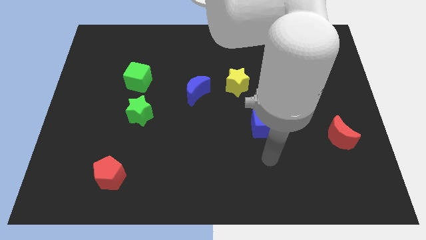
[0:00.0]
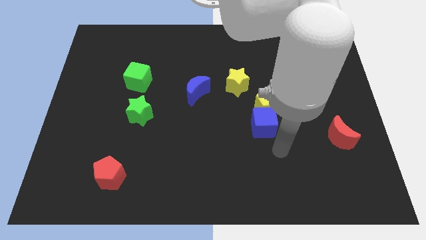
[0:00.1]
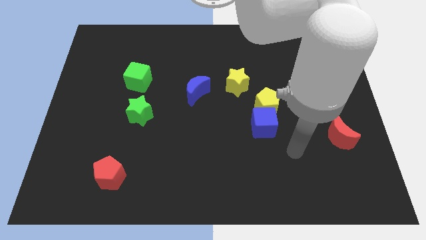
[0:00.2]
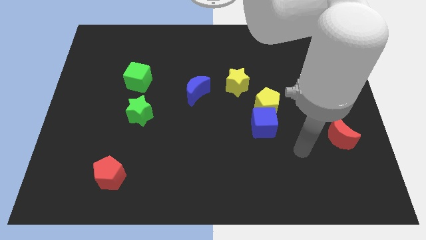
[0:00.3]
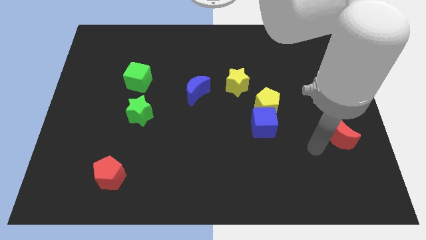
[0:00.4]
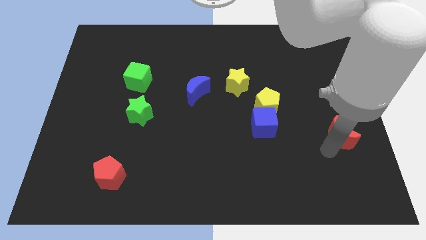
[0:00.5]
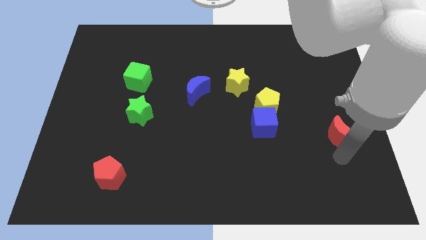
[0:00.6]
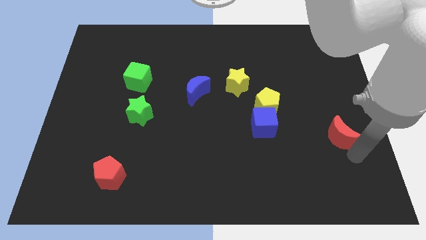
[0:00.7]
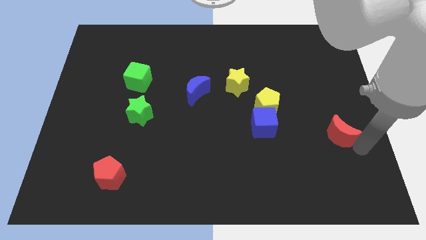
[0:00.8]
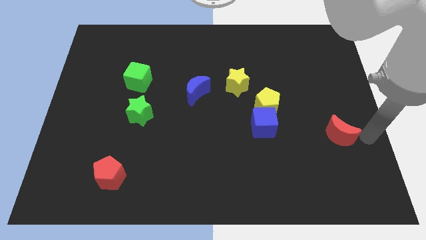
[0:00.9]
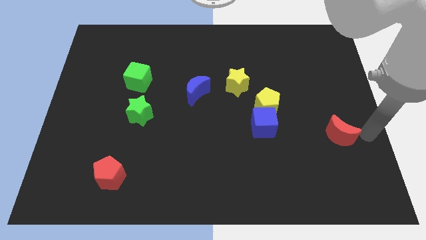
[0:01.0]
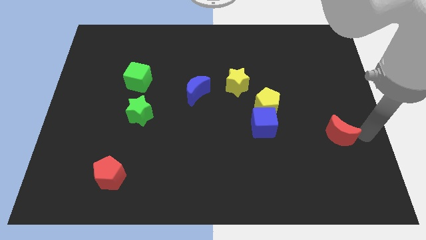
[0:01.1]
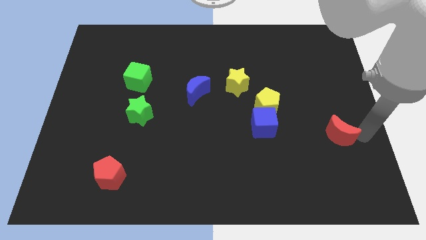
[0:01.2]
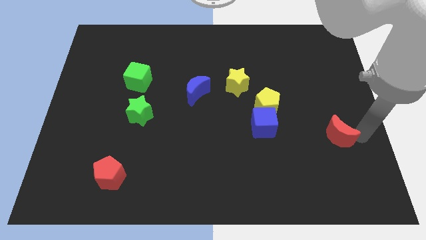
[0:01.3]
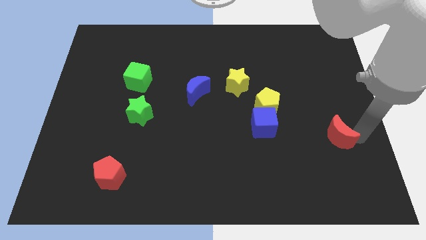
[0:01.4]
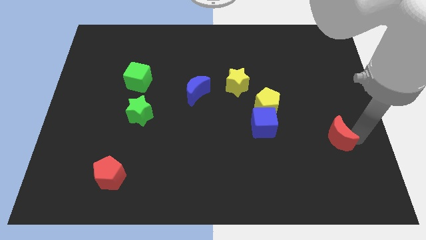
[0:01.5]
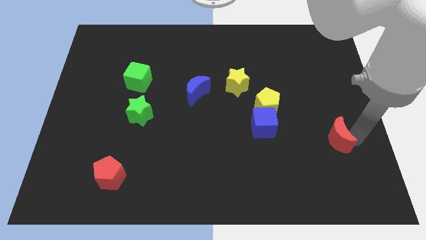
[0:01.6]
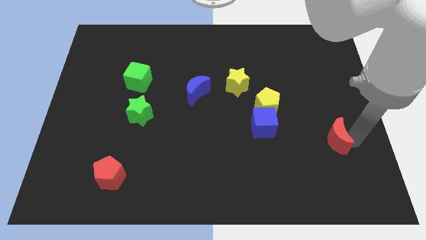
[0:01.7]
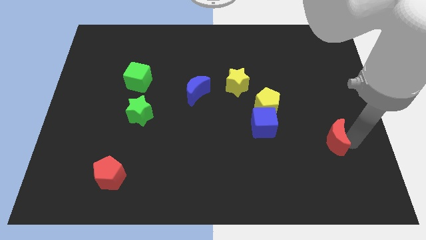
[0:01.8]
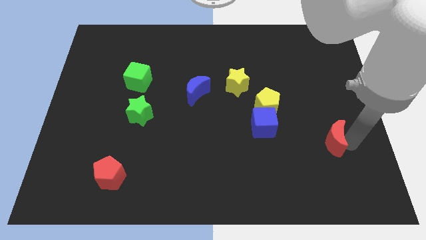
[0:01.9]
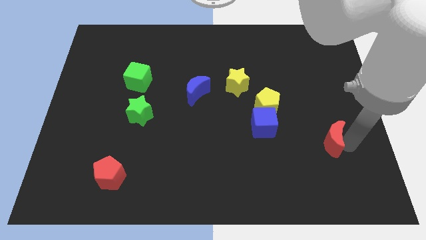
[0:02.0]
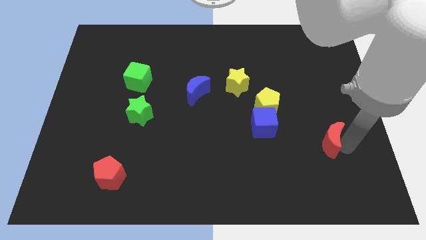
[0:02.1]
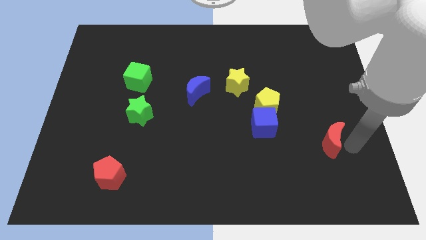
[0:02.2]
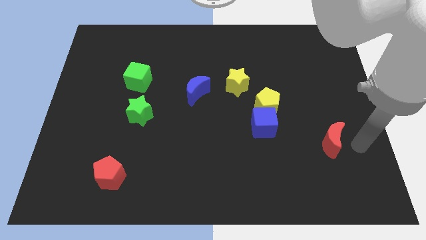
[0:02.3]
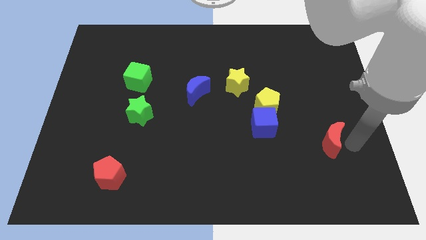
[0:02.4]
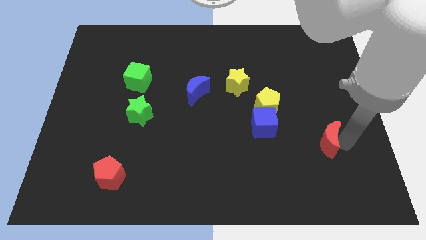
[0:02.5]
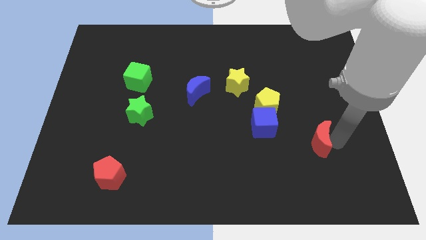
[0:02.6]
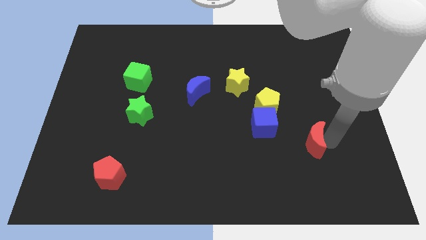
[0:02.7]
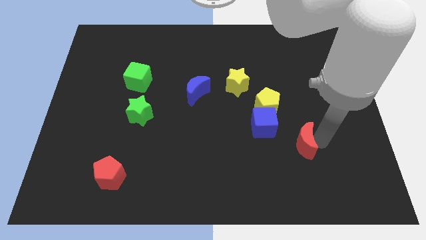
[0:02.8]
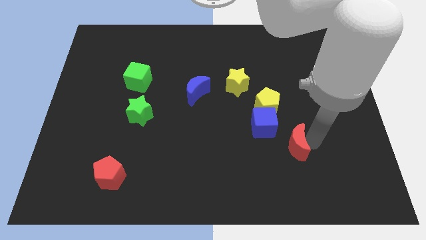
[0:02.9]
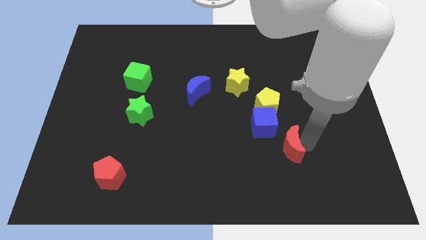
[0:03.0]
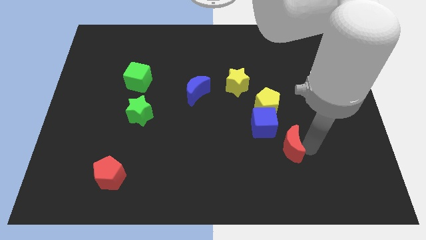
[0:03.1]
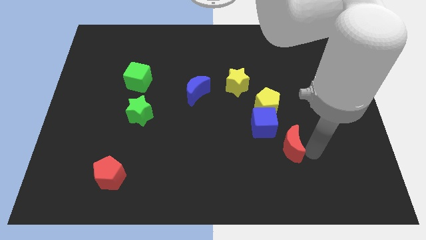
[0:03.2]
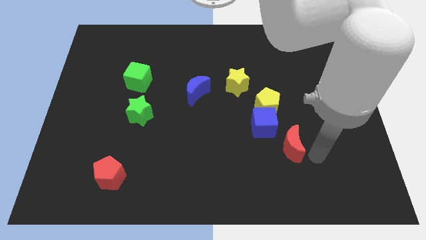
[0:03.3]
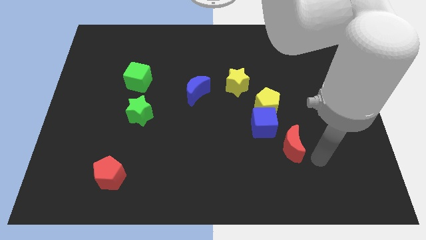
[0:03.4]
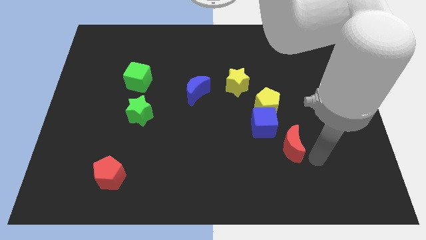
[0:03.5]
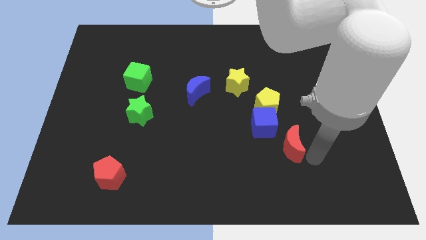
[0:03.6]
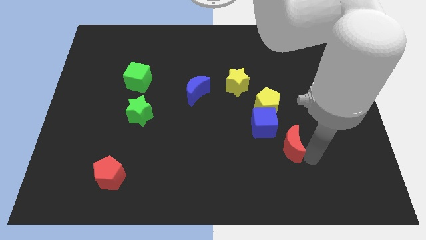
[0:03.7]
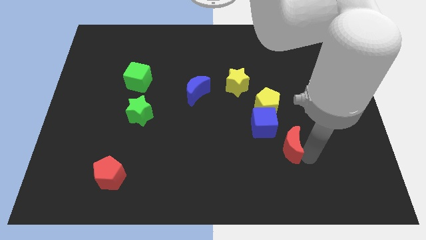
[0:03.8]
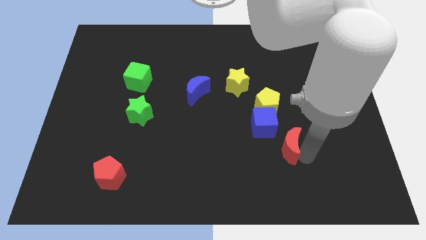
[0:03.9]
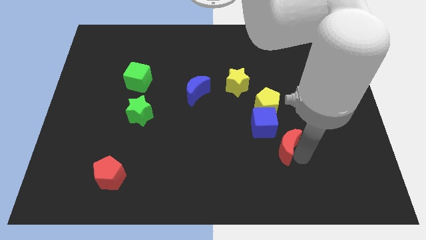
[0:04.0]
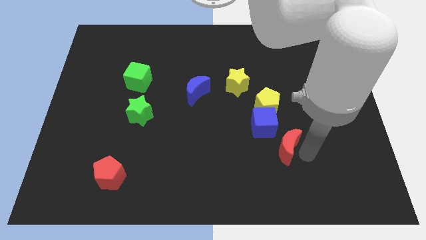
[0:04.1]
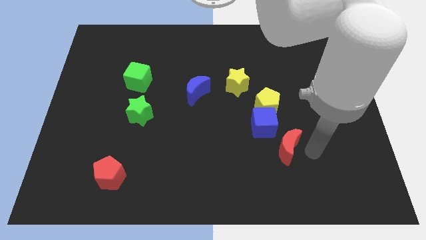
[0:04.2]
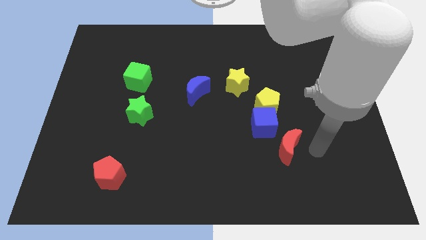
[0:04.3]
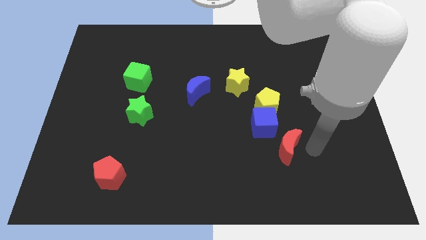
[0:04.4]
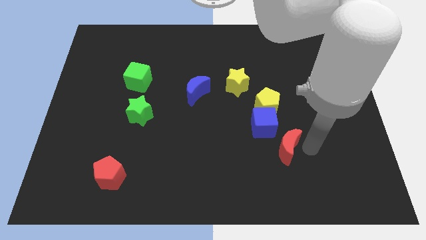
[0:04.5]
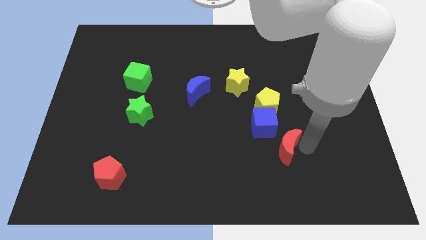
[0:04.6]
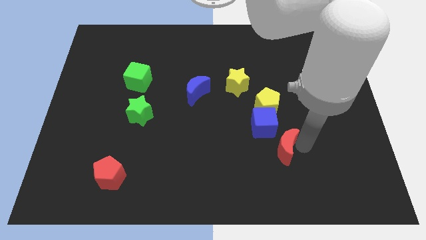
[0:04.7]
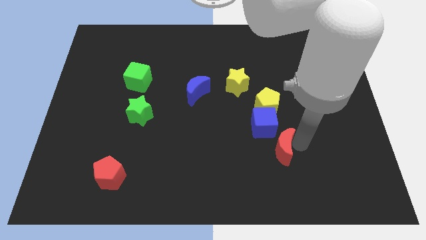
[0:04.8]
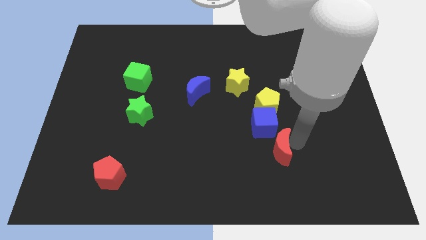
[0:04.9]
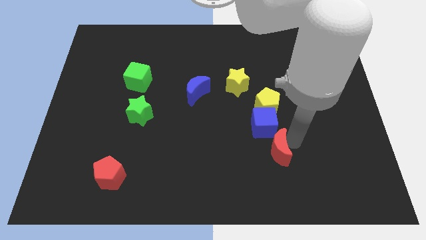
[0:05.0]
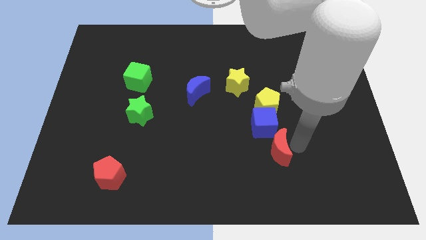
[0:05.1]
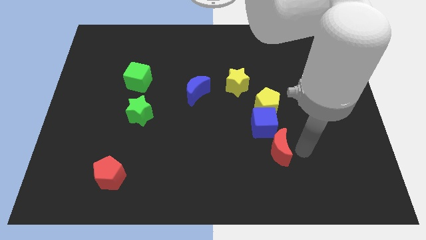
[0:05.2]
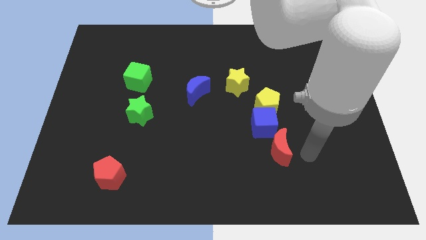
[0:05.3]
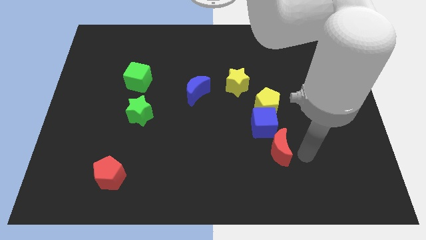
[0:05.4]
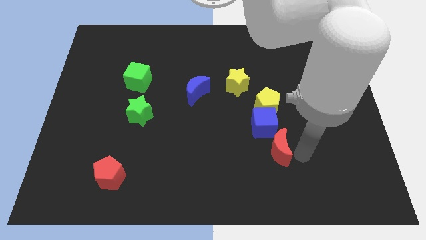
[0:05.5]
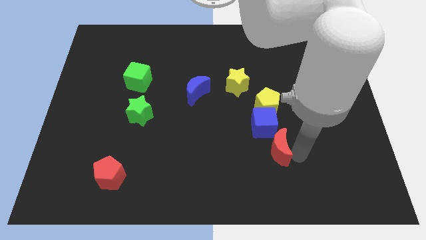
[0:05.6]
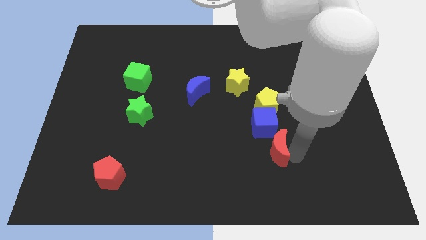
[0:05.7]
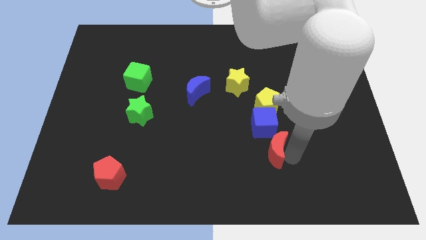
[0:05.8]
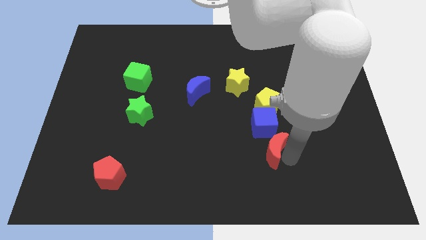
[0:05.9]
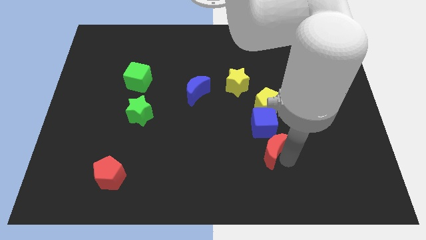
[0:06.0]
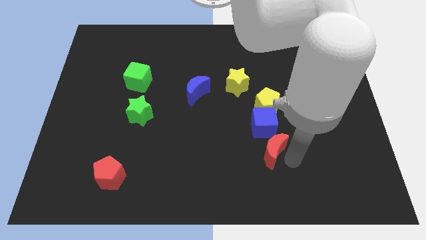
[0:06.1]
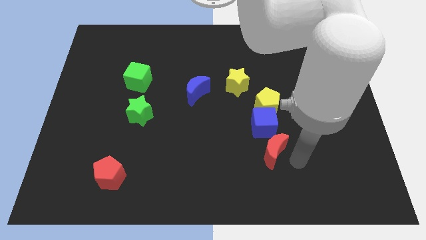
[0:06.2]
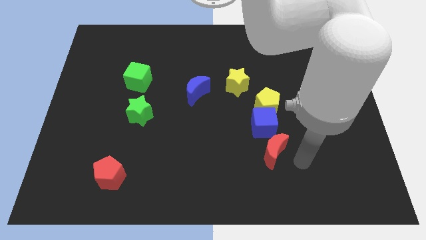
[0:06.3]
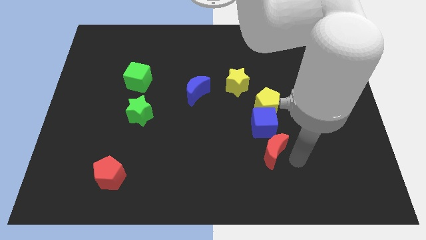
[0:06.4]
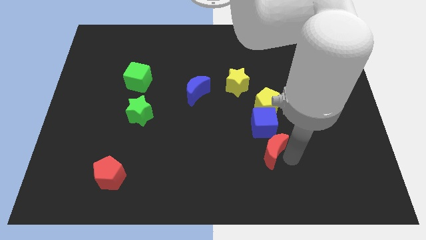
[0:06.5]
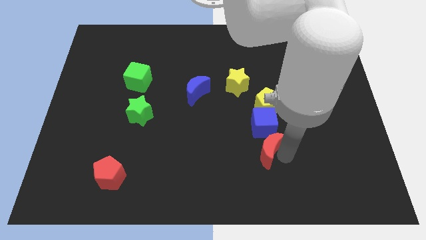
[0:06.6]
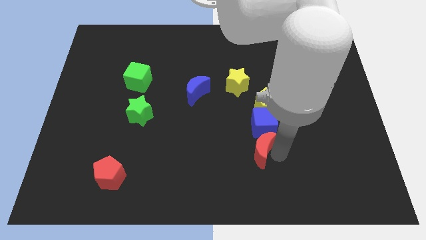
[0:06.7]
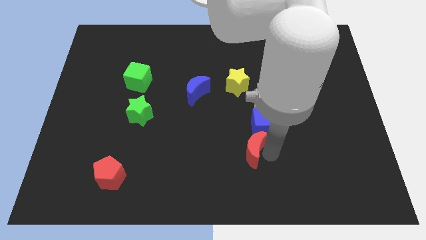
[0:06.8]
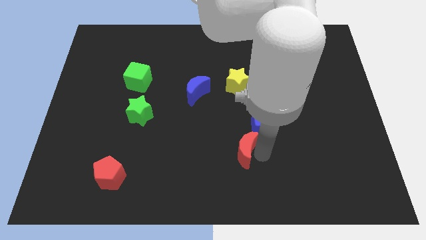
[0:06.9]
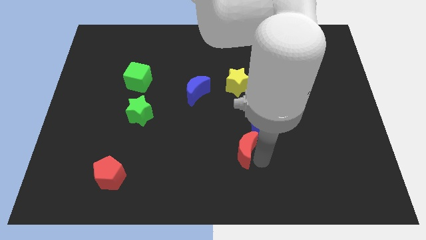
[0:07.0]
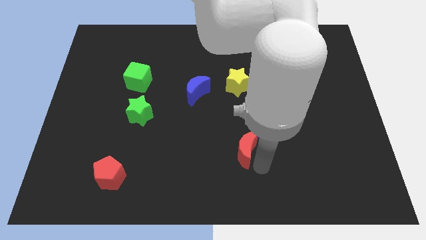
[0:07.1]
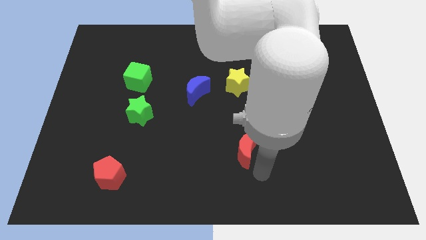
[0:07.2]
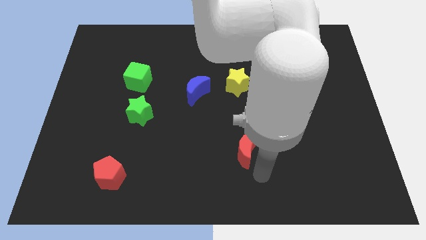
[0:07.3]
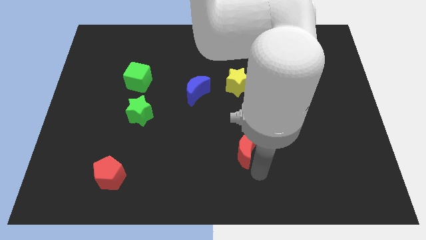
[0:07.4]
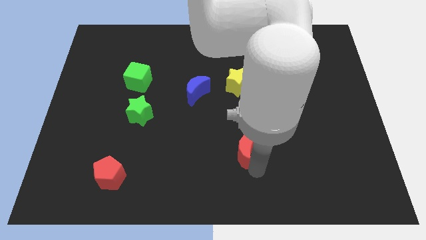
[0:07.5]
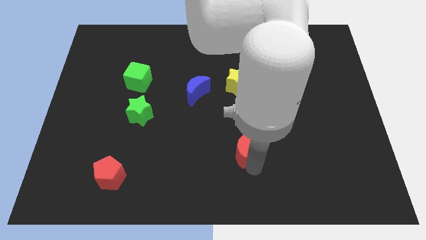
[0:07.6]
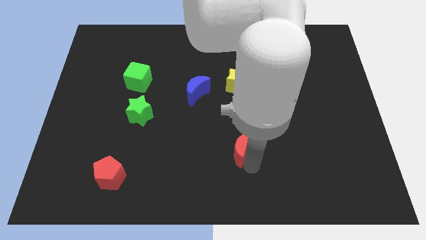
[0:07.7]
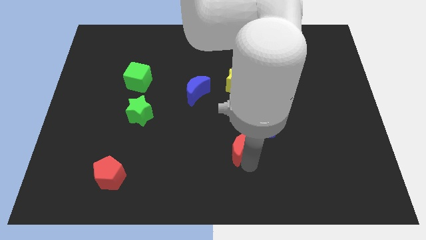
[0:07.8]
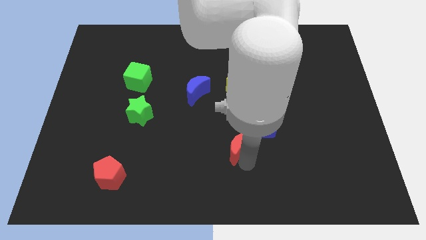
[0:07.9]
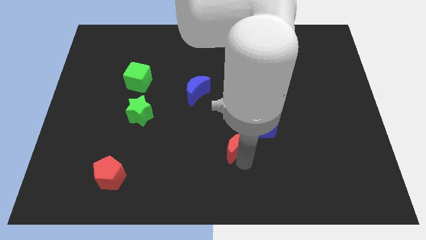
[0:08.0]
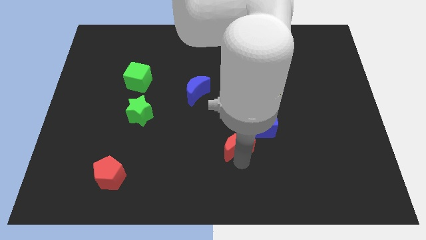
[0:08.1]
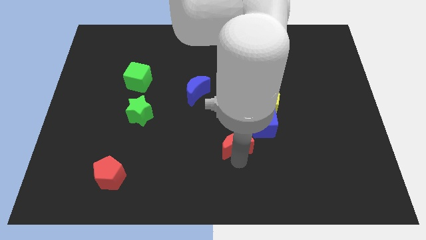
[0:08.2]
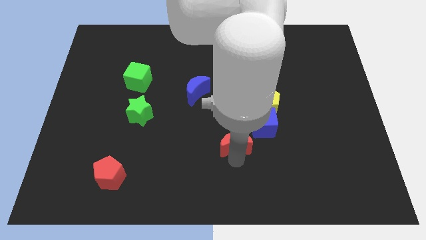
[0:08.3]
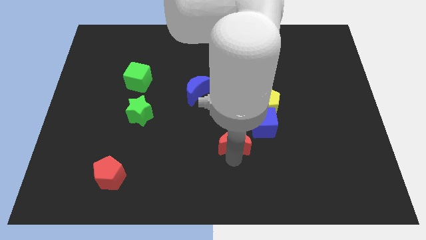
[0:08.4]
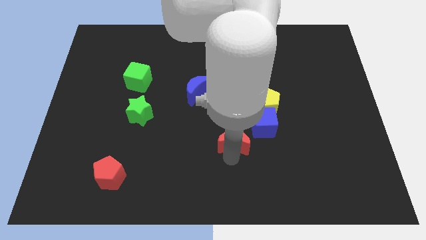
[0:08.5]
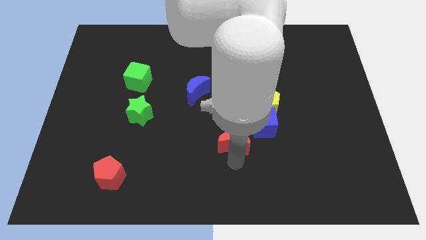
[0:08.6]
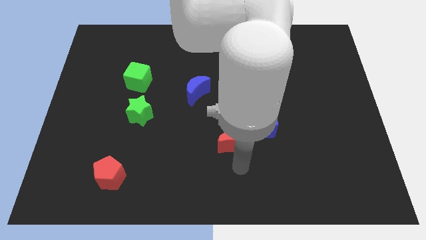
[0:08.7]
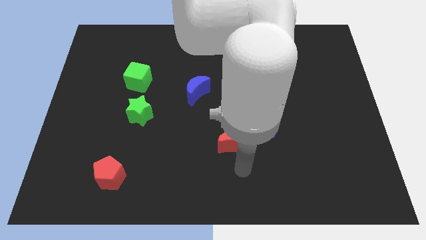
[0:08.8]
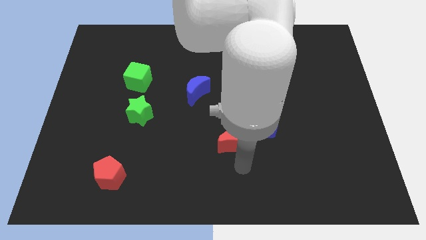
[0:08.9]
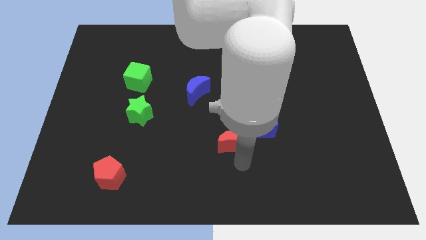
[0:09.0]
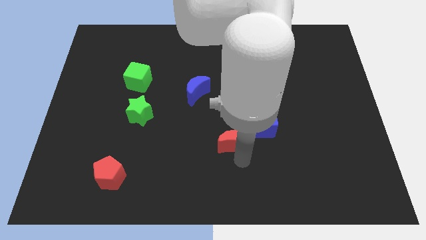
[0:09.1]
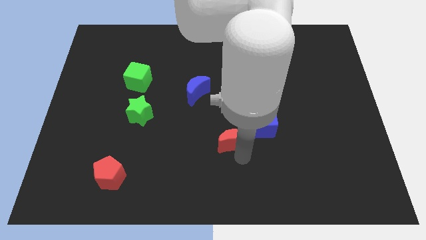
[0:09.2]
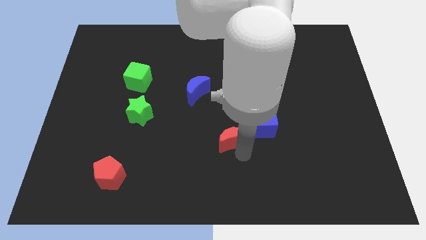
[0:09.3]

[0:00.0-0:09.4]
put the red moon to the middle
